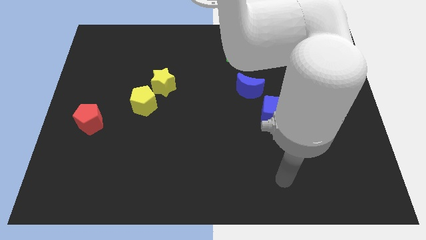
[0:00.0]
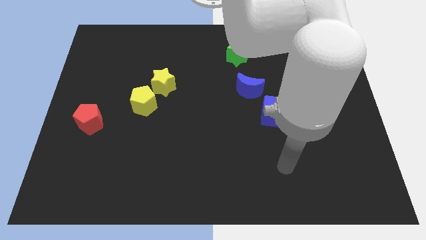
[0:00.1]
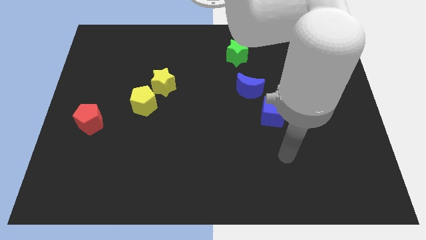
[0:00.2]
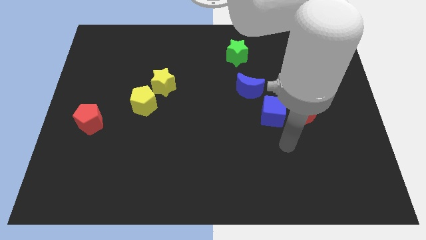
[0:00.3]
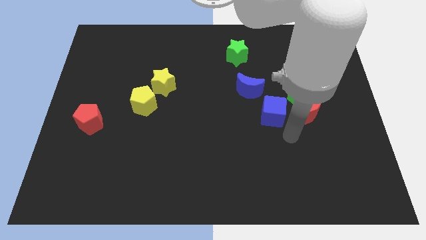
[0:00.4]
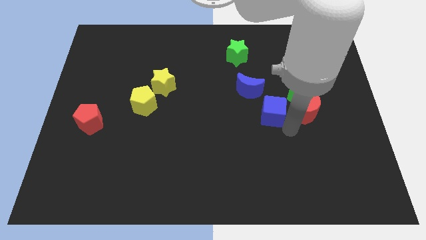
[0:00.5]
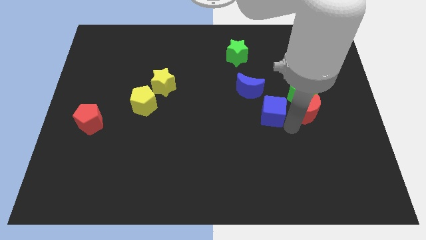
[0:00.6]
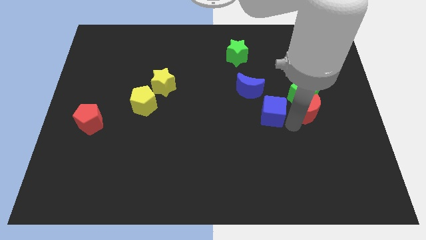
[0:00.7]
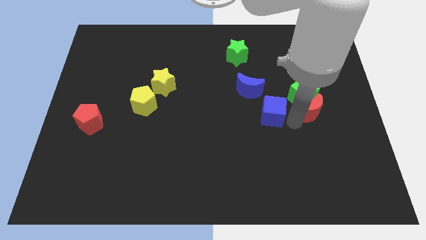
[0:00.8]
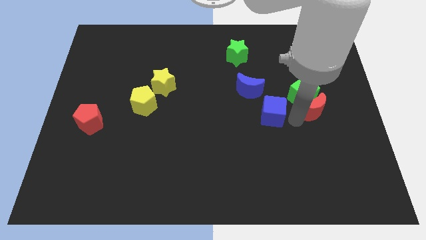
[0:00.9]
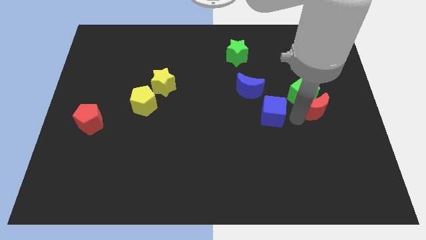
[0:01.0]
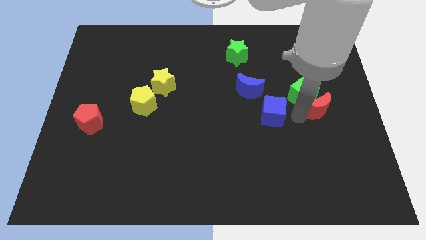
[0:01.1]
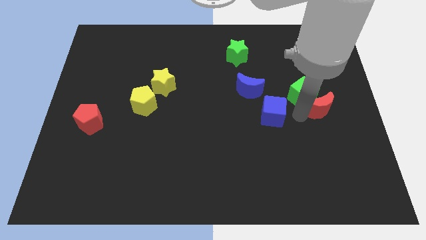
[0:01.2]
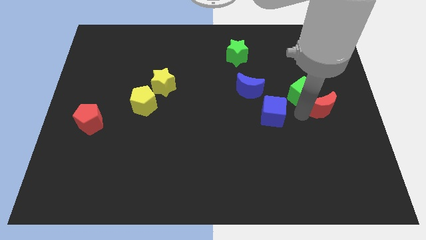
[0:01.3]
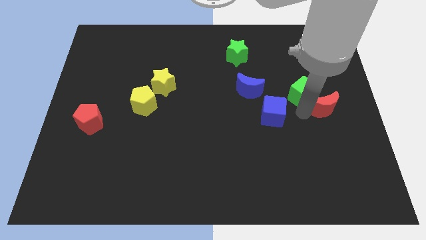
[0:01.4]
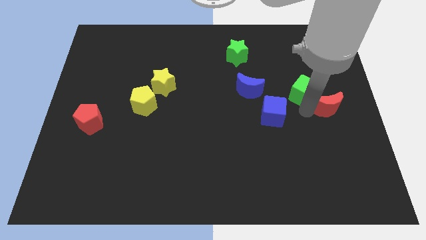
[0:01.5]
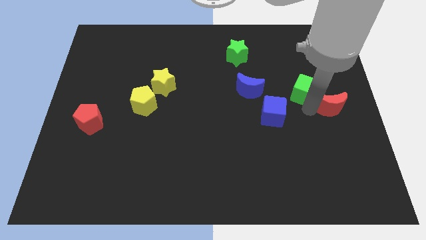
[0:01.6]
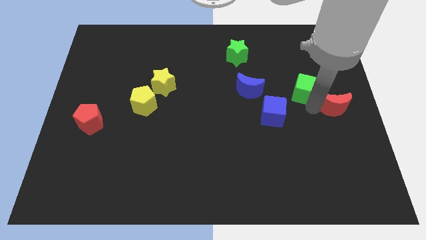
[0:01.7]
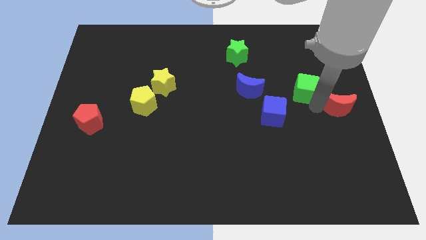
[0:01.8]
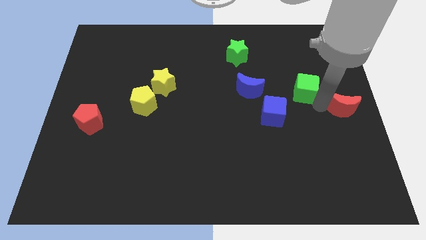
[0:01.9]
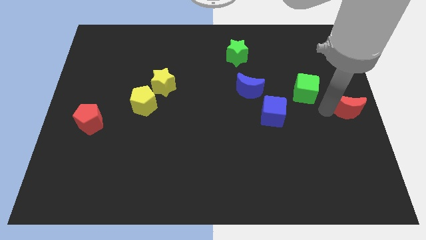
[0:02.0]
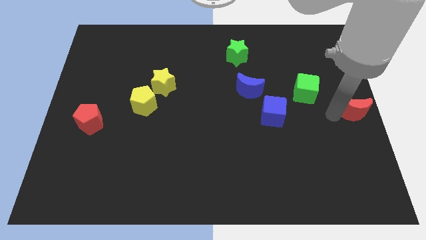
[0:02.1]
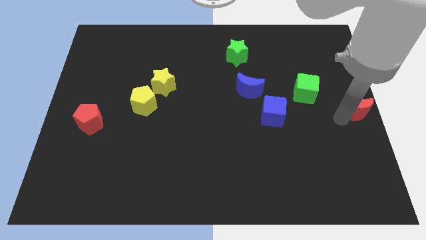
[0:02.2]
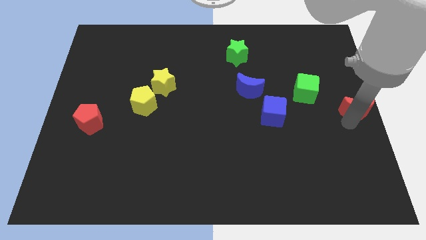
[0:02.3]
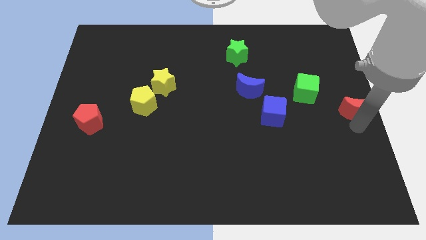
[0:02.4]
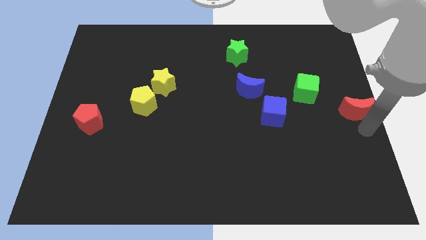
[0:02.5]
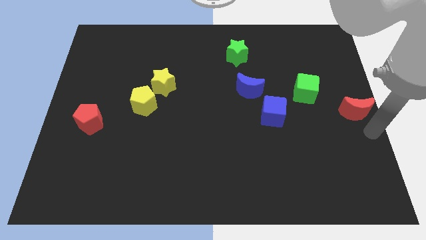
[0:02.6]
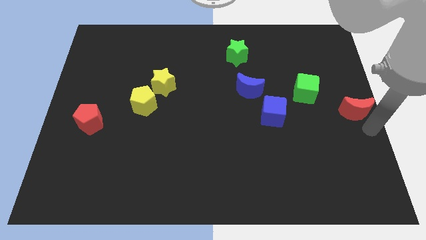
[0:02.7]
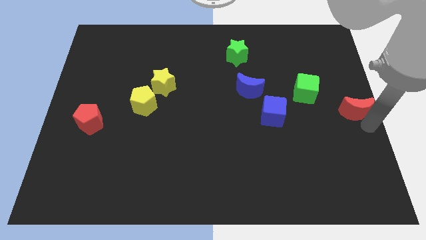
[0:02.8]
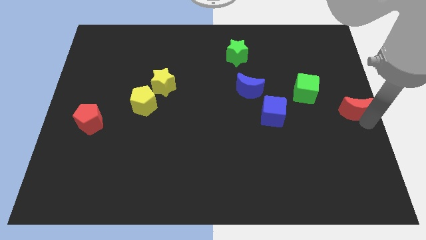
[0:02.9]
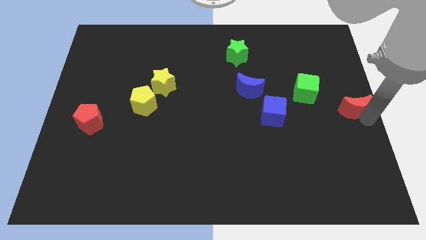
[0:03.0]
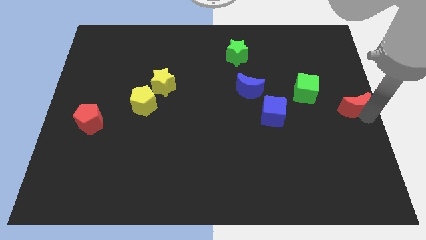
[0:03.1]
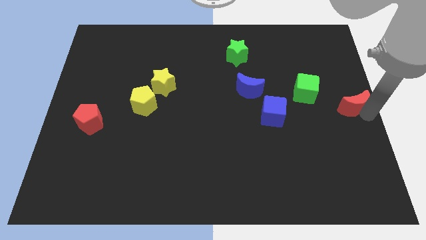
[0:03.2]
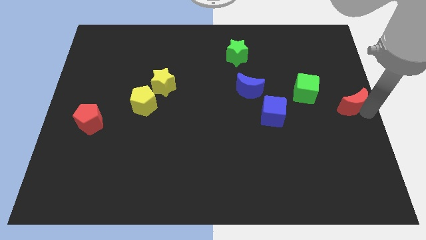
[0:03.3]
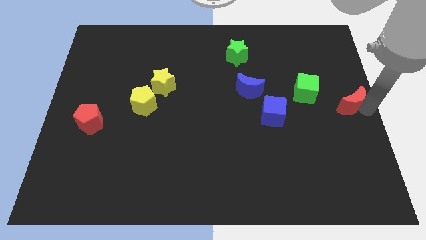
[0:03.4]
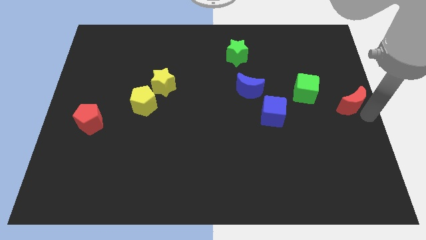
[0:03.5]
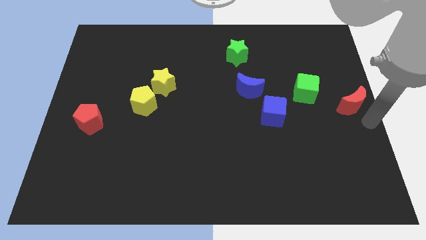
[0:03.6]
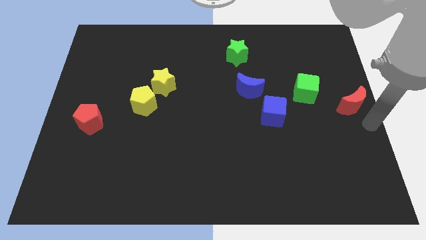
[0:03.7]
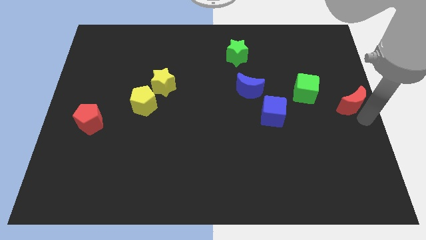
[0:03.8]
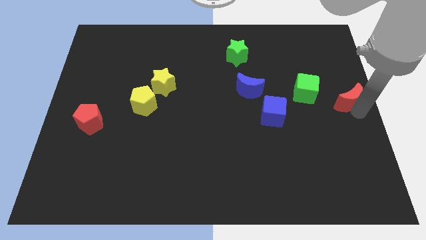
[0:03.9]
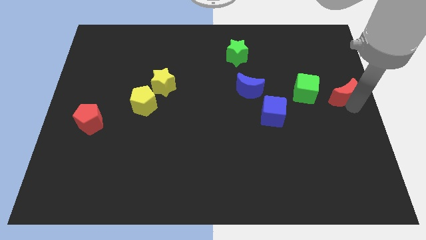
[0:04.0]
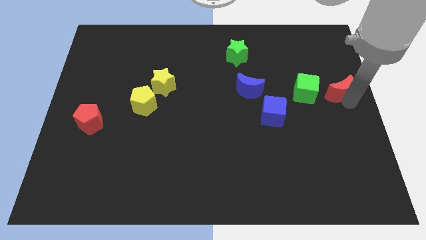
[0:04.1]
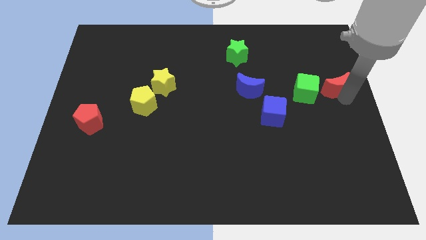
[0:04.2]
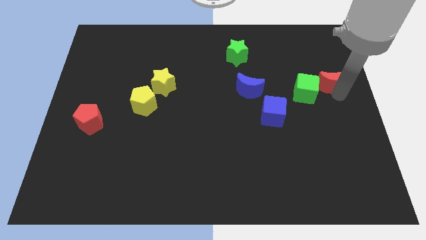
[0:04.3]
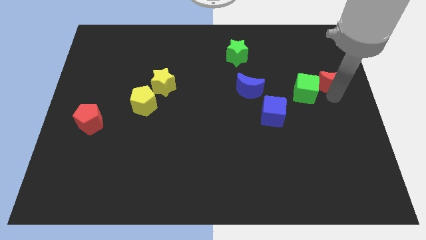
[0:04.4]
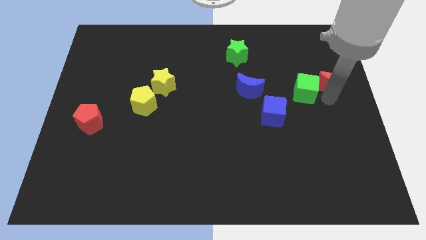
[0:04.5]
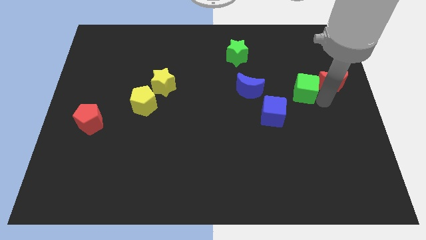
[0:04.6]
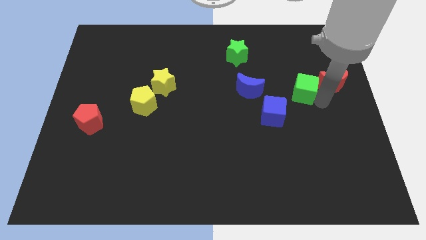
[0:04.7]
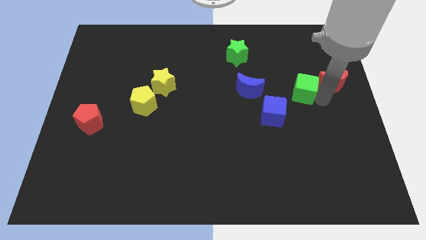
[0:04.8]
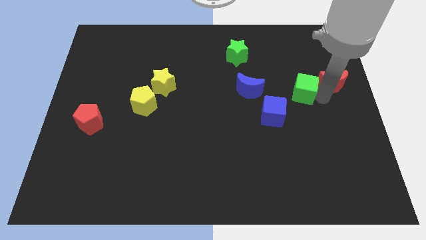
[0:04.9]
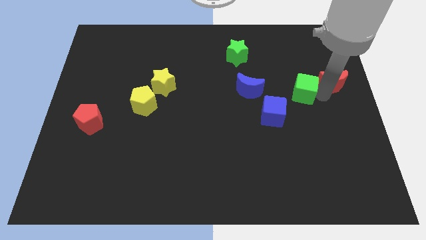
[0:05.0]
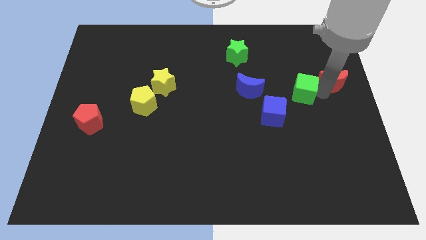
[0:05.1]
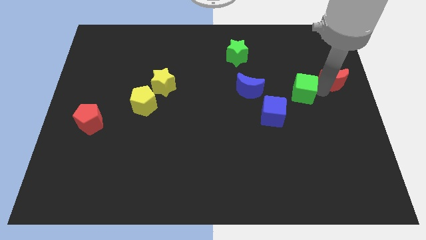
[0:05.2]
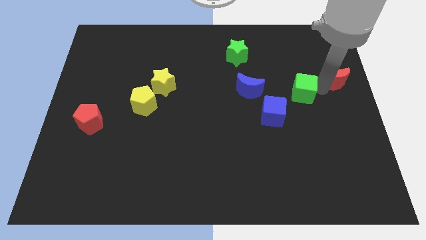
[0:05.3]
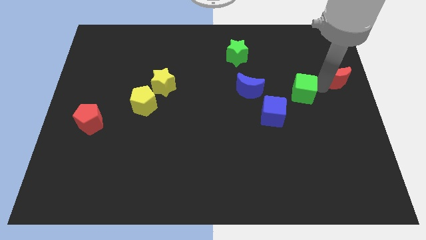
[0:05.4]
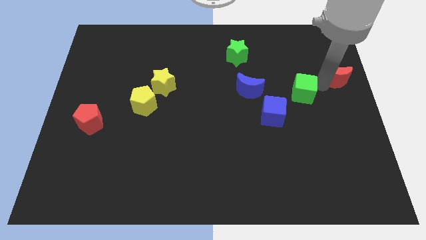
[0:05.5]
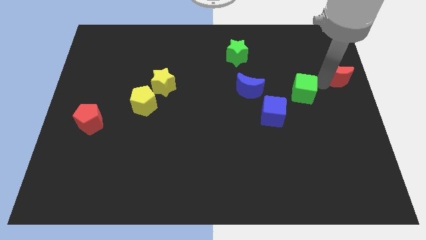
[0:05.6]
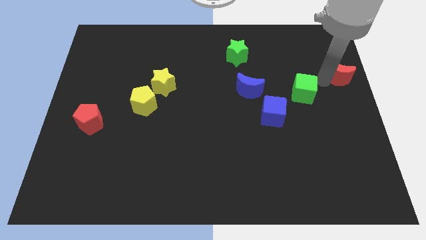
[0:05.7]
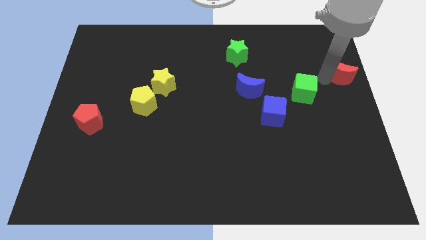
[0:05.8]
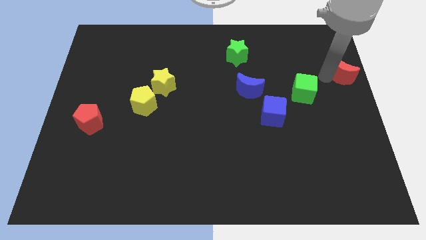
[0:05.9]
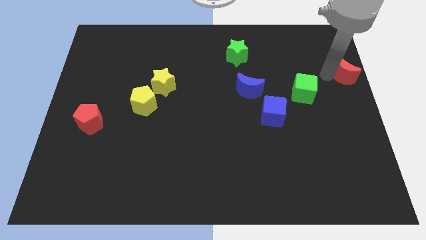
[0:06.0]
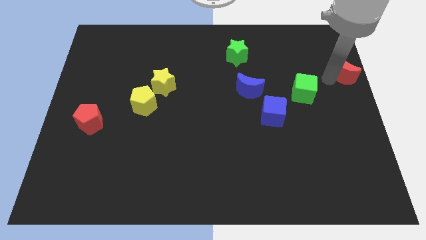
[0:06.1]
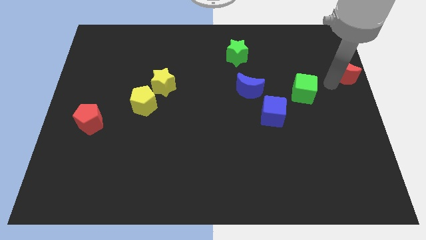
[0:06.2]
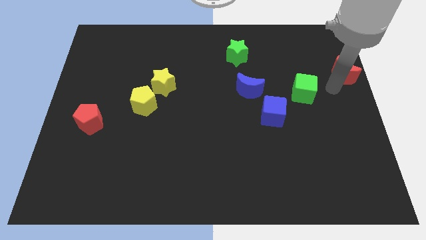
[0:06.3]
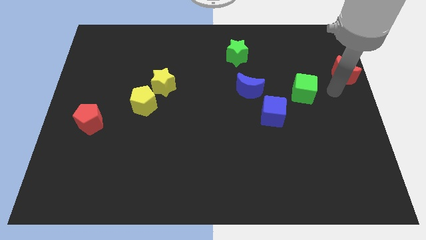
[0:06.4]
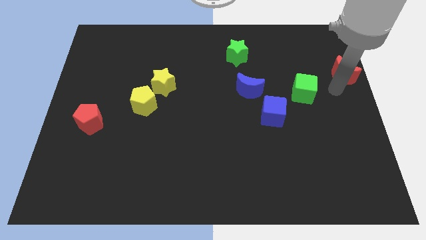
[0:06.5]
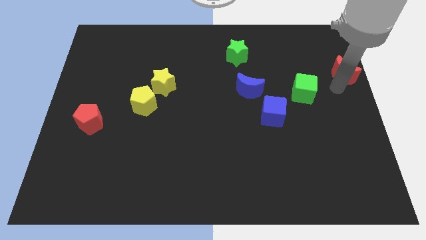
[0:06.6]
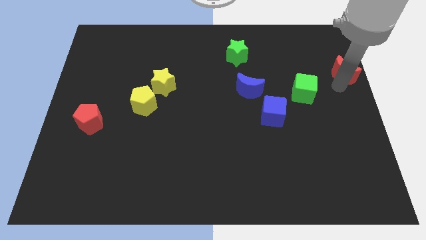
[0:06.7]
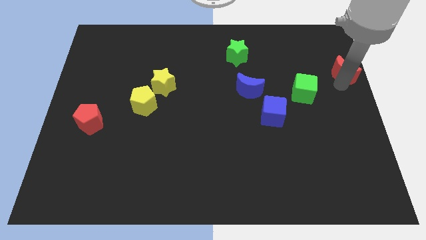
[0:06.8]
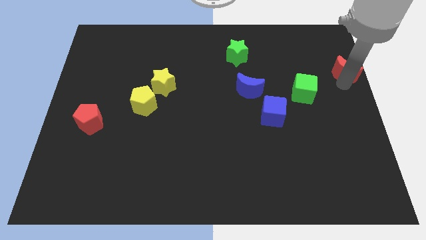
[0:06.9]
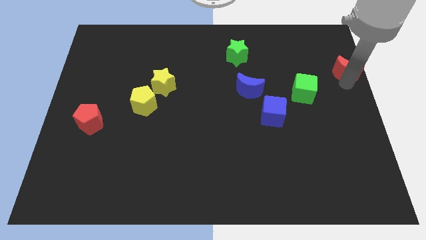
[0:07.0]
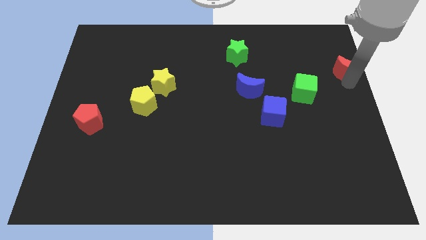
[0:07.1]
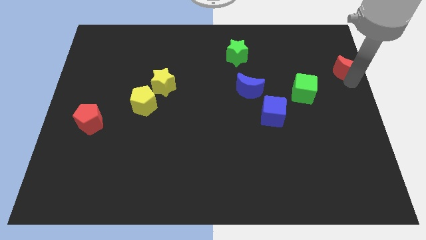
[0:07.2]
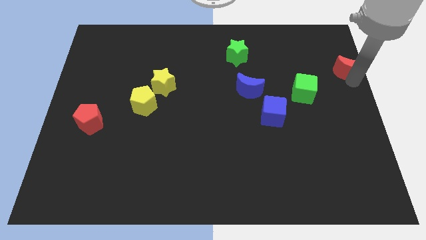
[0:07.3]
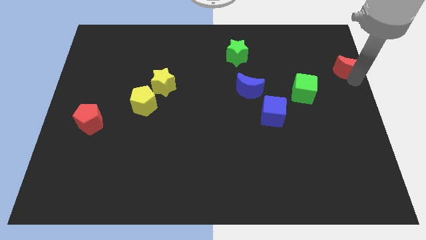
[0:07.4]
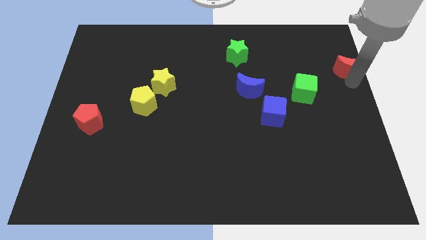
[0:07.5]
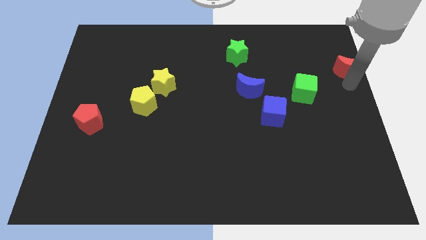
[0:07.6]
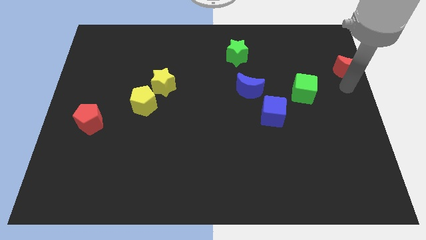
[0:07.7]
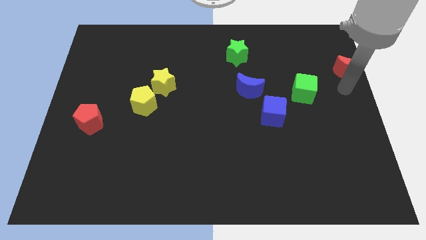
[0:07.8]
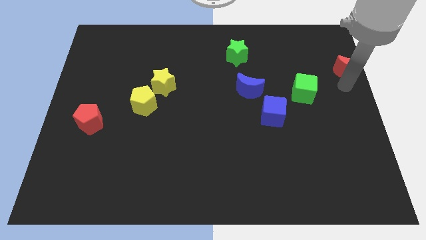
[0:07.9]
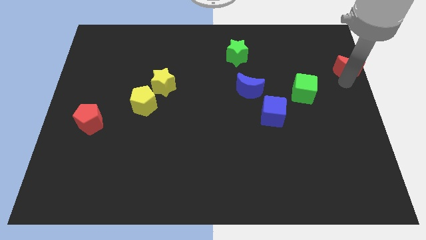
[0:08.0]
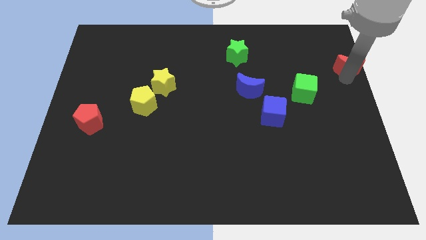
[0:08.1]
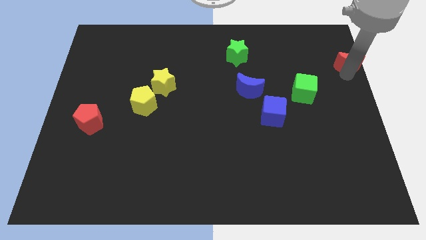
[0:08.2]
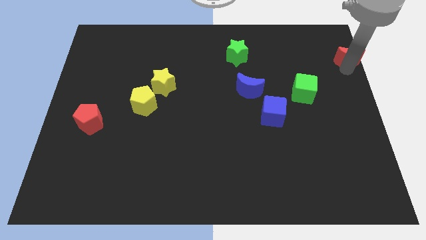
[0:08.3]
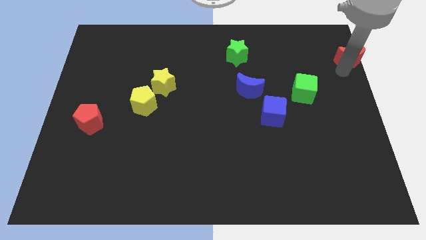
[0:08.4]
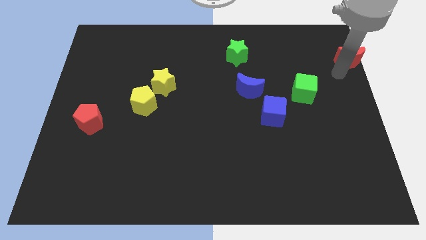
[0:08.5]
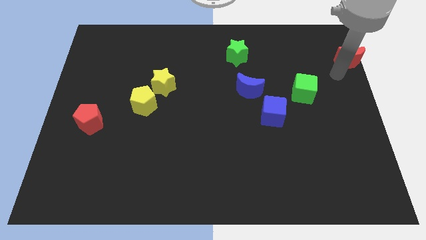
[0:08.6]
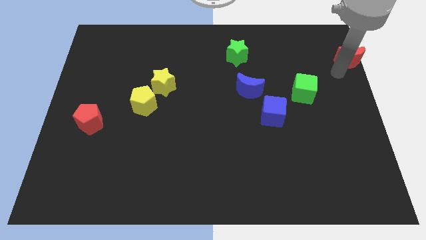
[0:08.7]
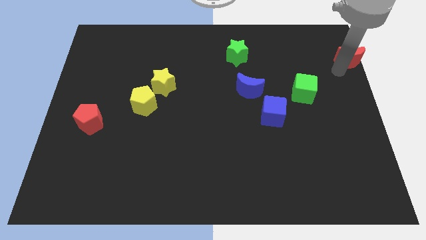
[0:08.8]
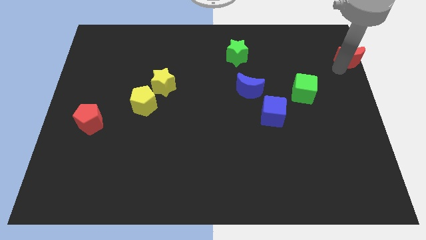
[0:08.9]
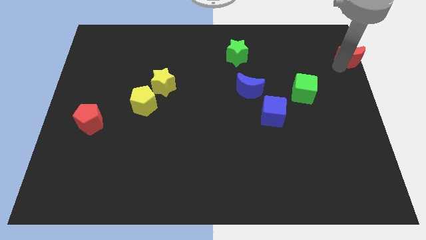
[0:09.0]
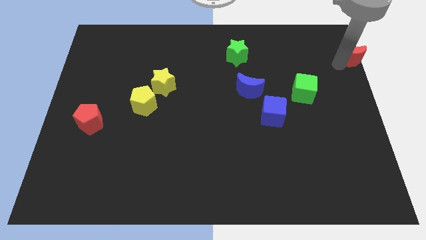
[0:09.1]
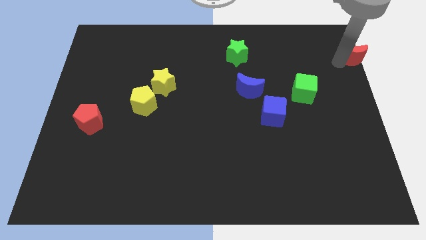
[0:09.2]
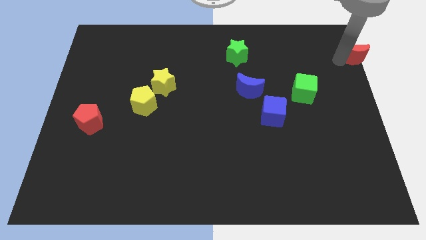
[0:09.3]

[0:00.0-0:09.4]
push the red moon to the top right corner
